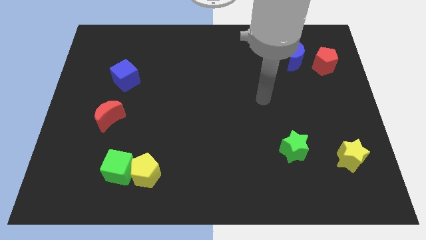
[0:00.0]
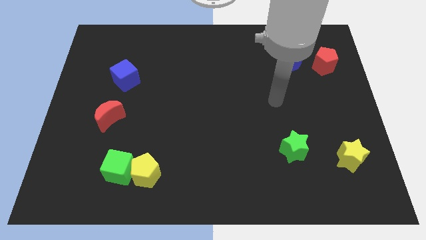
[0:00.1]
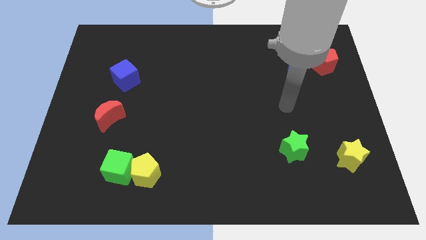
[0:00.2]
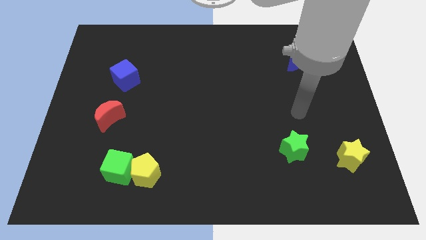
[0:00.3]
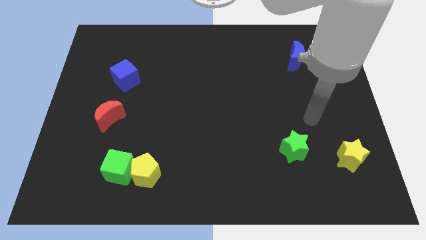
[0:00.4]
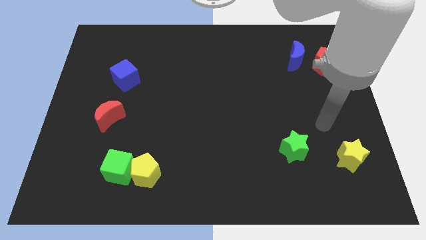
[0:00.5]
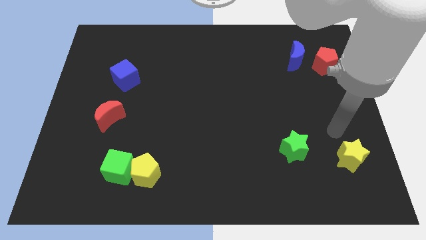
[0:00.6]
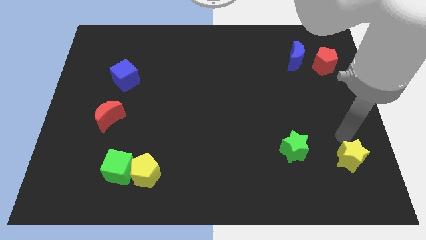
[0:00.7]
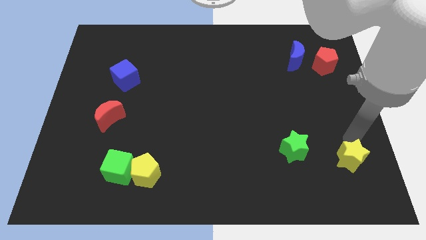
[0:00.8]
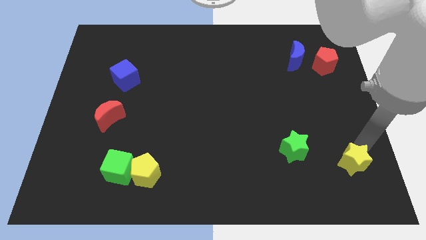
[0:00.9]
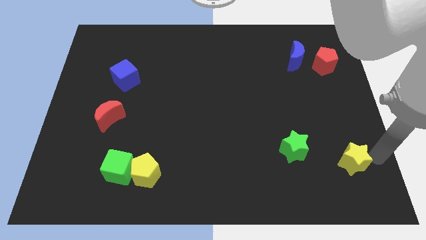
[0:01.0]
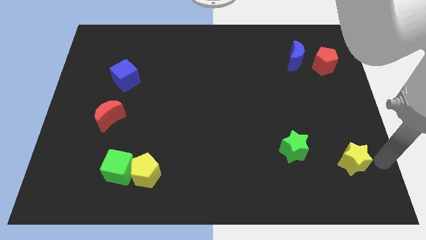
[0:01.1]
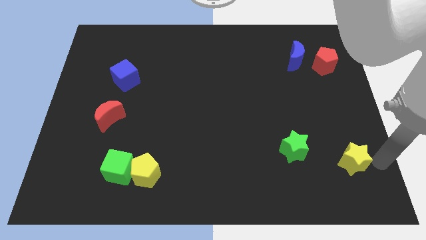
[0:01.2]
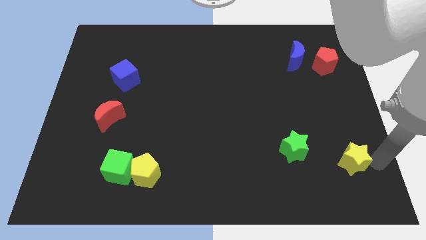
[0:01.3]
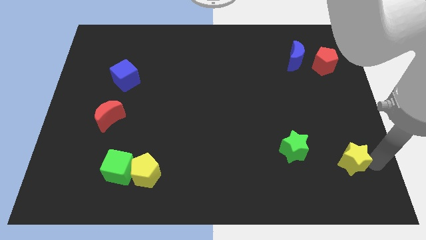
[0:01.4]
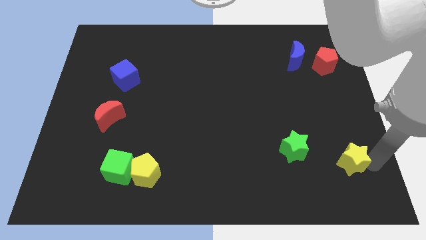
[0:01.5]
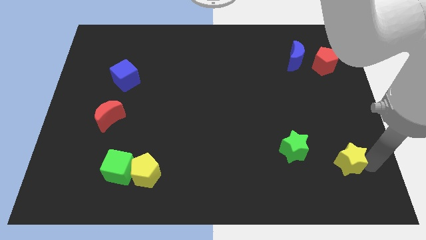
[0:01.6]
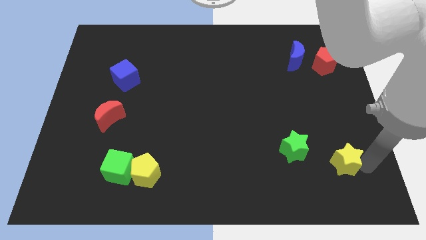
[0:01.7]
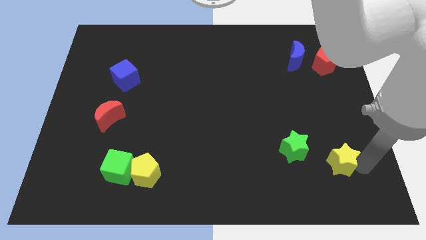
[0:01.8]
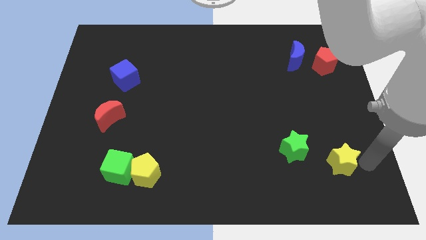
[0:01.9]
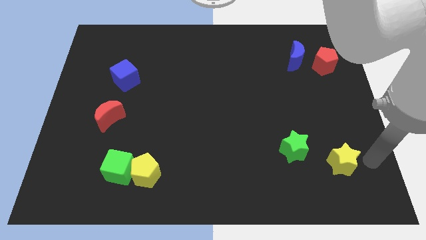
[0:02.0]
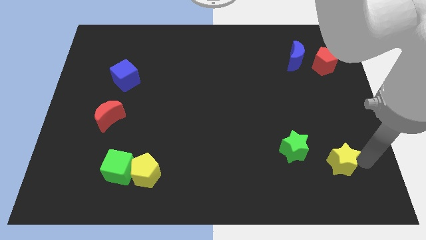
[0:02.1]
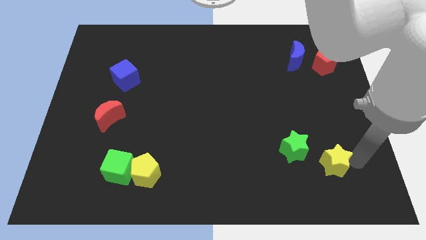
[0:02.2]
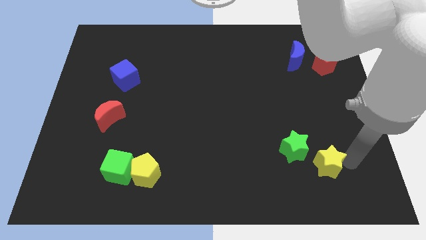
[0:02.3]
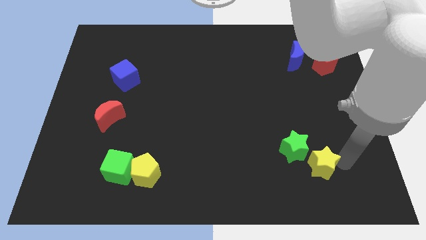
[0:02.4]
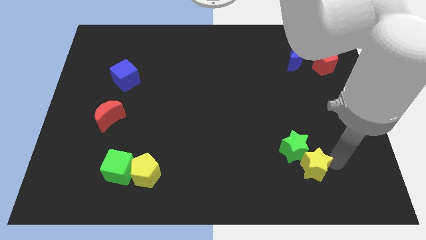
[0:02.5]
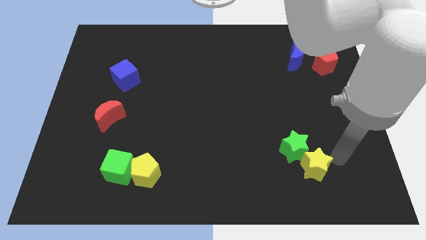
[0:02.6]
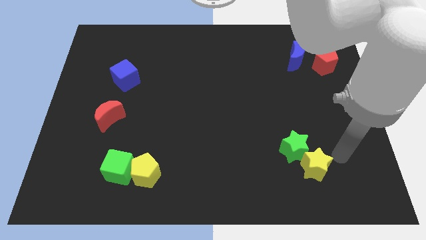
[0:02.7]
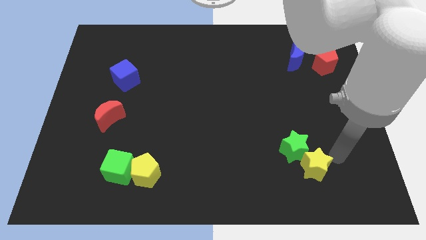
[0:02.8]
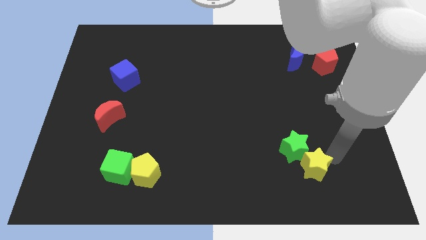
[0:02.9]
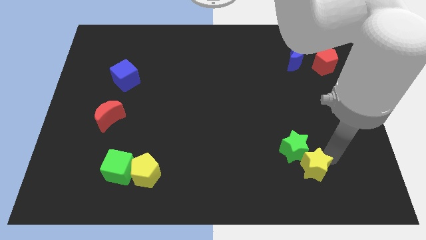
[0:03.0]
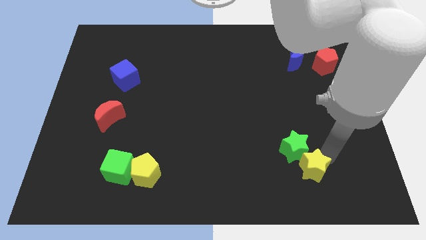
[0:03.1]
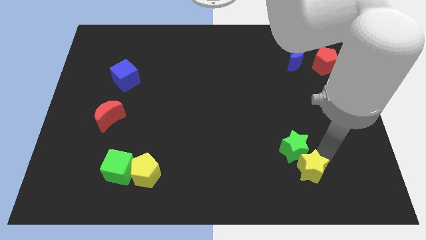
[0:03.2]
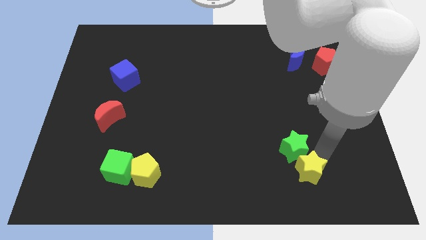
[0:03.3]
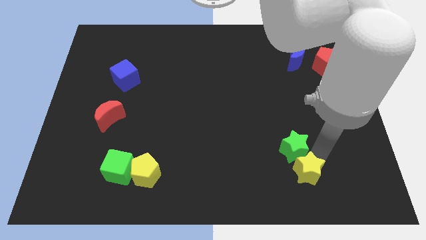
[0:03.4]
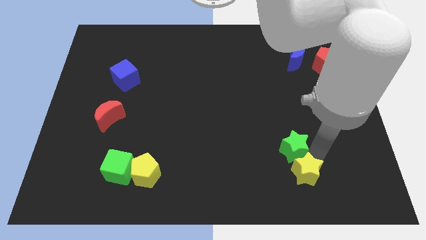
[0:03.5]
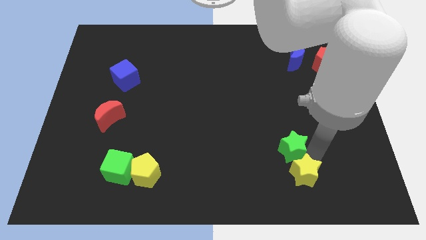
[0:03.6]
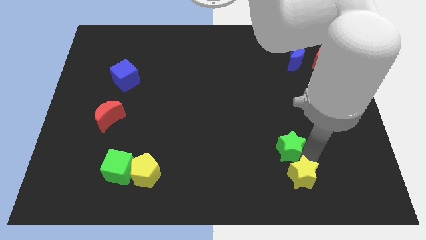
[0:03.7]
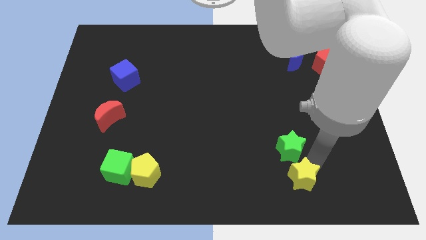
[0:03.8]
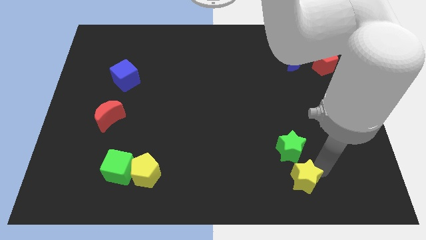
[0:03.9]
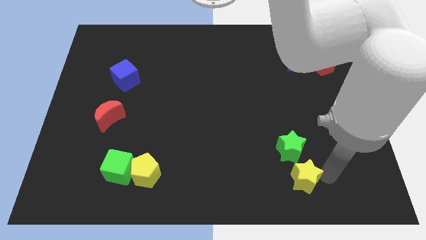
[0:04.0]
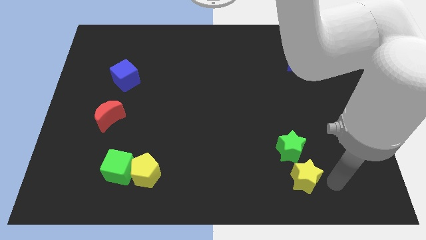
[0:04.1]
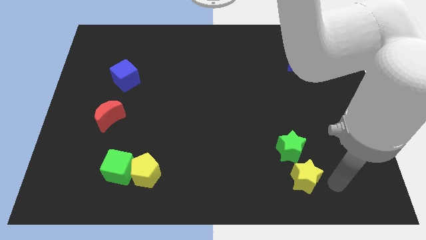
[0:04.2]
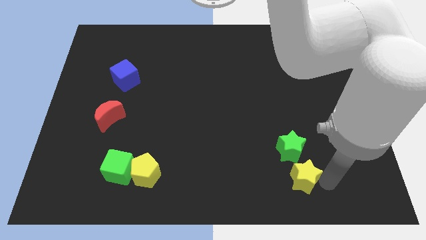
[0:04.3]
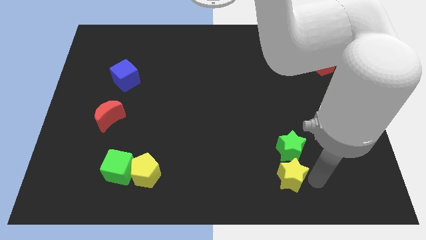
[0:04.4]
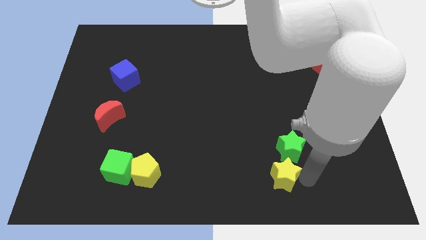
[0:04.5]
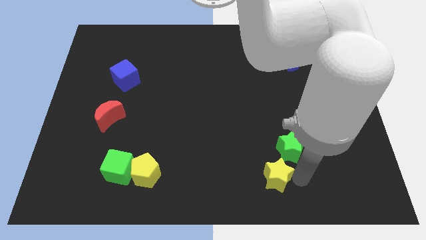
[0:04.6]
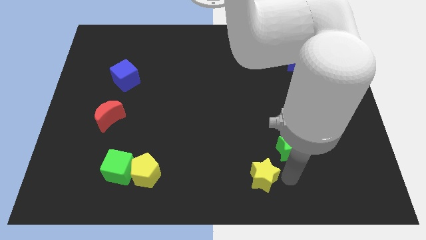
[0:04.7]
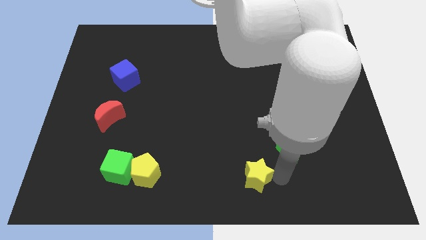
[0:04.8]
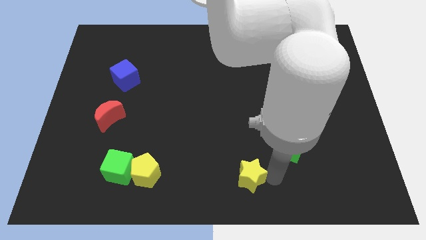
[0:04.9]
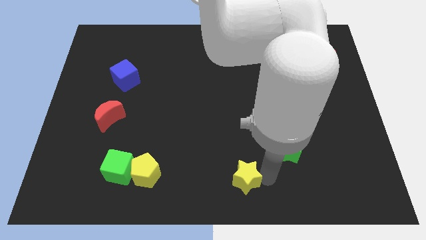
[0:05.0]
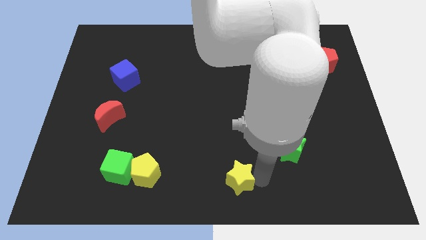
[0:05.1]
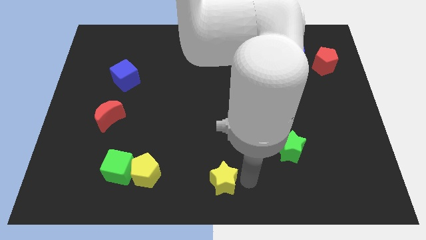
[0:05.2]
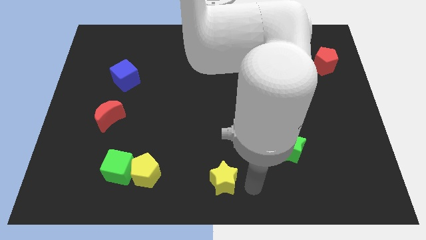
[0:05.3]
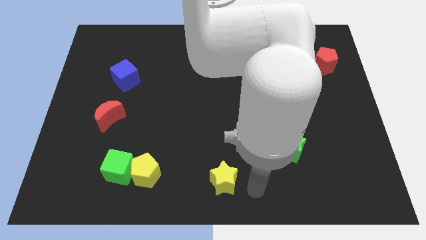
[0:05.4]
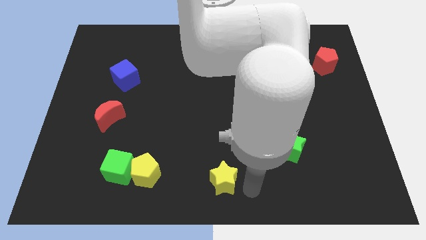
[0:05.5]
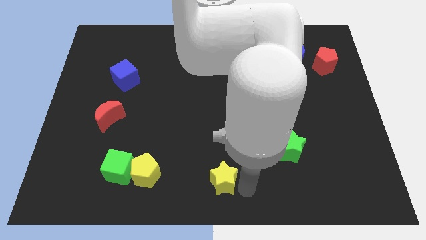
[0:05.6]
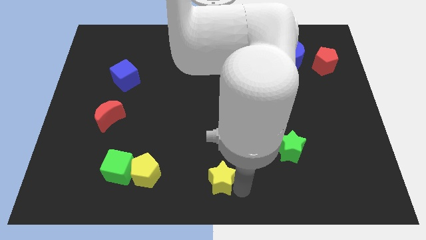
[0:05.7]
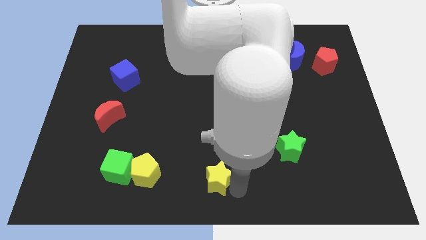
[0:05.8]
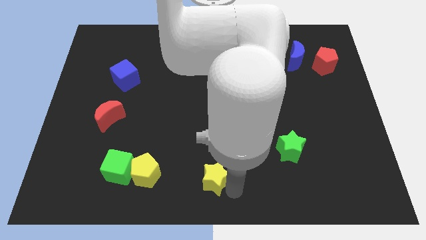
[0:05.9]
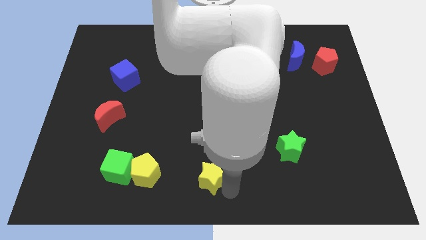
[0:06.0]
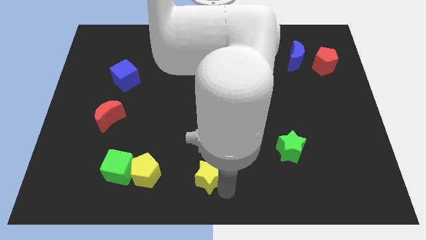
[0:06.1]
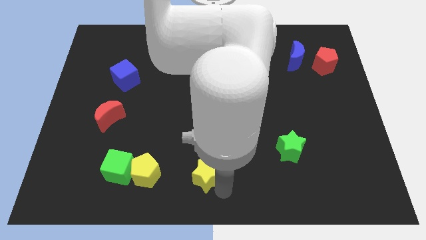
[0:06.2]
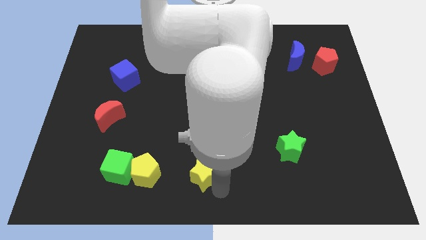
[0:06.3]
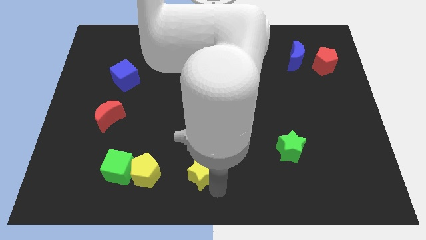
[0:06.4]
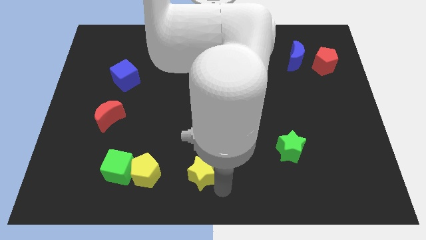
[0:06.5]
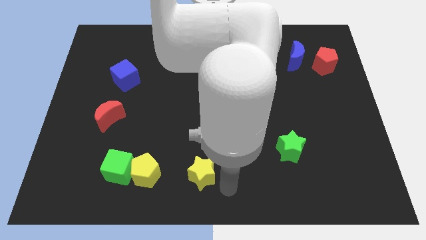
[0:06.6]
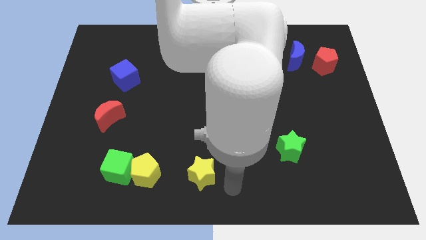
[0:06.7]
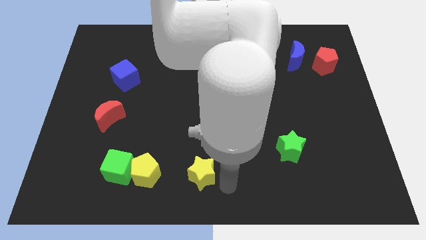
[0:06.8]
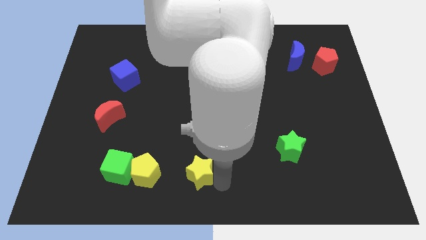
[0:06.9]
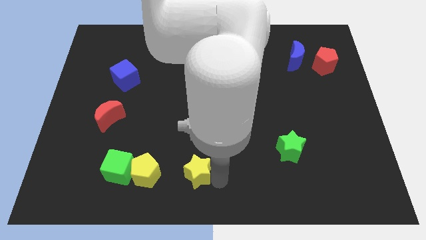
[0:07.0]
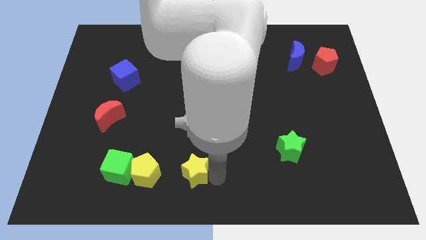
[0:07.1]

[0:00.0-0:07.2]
put the yellow star right of the green cube

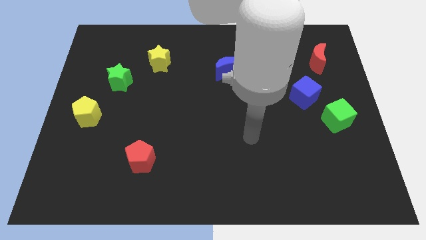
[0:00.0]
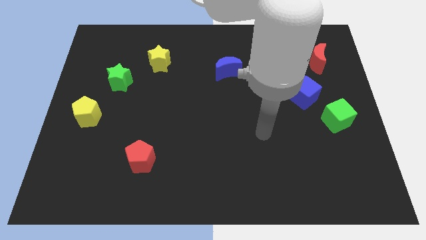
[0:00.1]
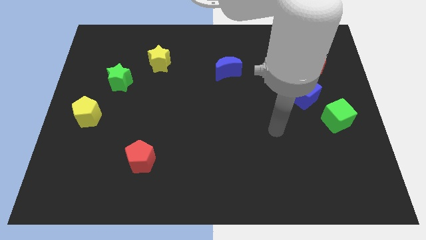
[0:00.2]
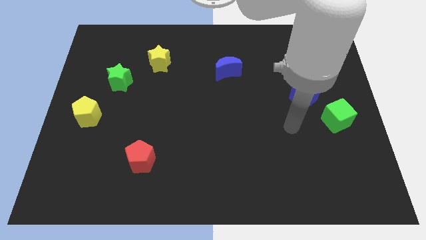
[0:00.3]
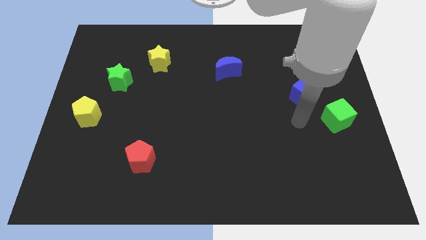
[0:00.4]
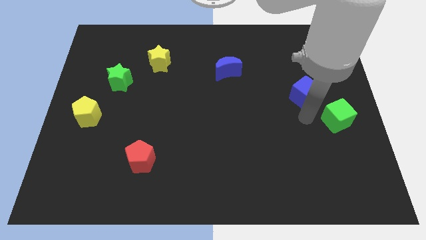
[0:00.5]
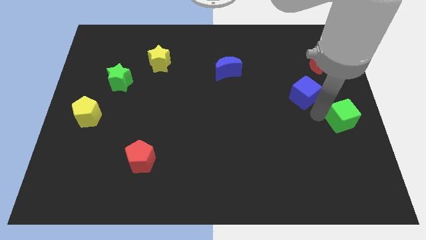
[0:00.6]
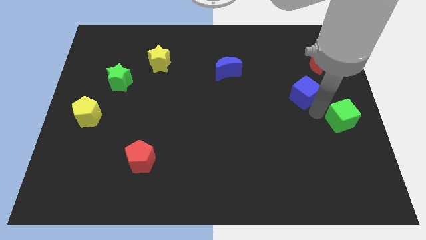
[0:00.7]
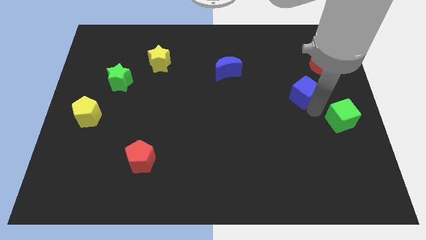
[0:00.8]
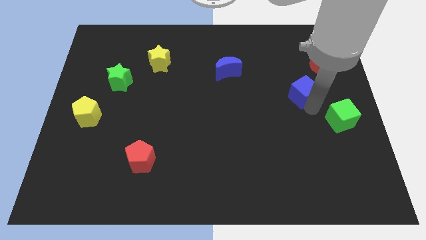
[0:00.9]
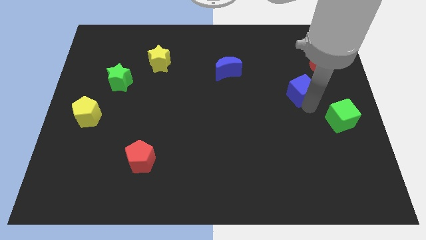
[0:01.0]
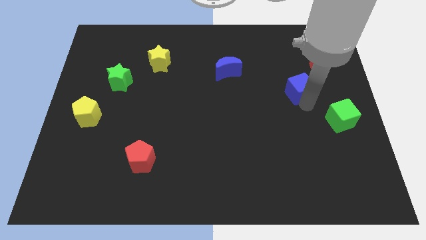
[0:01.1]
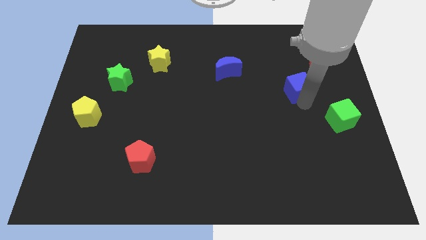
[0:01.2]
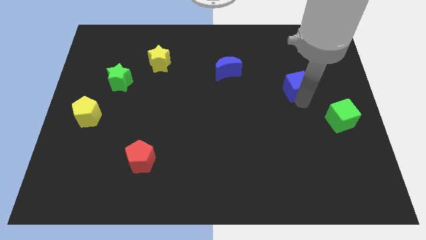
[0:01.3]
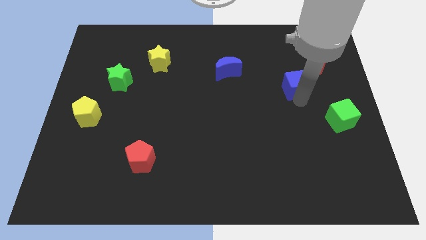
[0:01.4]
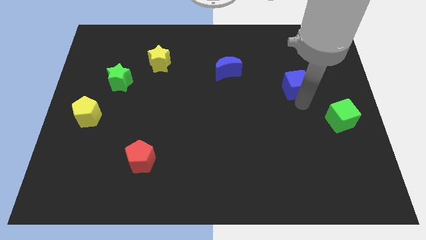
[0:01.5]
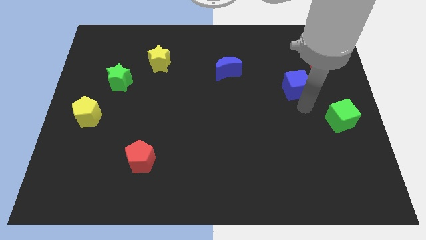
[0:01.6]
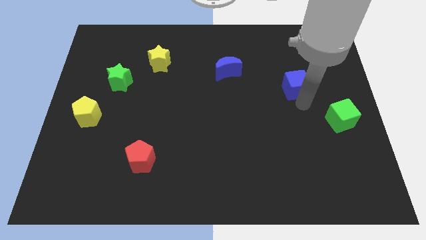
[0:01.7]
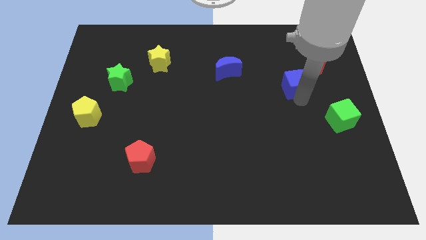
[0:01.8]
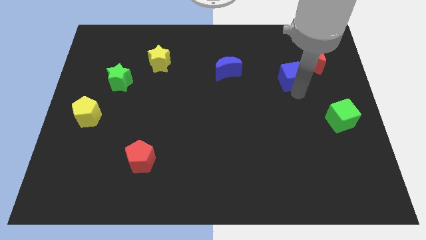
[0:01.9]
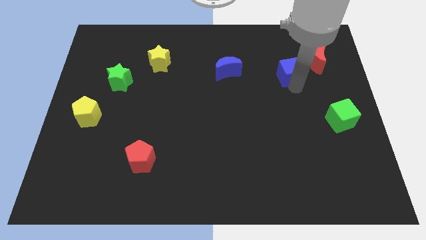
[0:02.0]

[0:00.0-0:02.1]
move the blue cube left of the red moon
